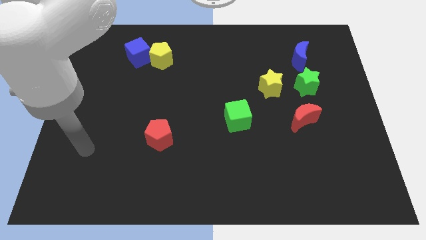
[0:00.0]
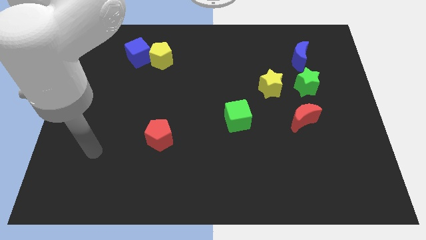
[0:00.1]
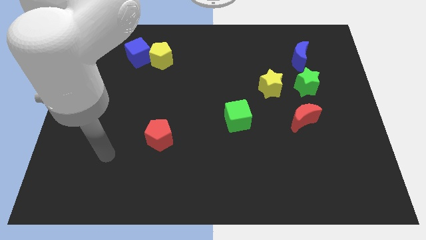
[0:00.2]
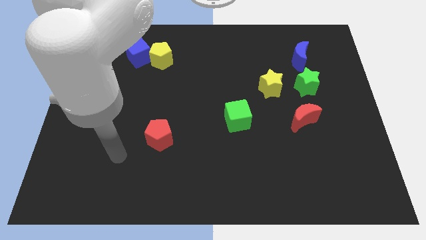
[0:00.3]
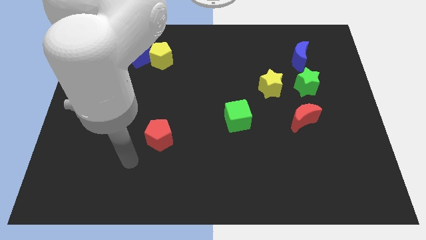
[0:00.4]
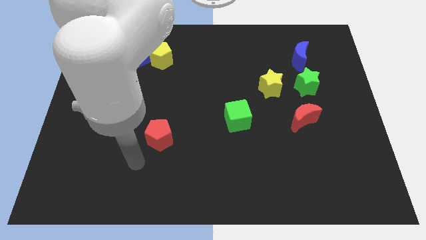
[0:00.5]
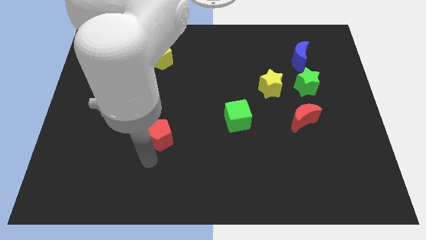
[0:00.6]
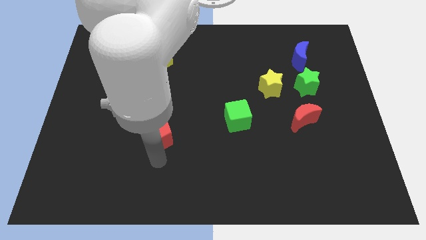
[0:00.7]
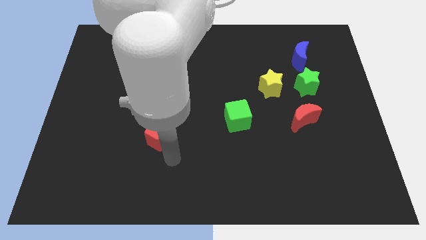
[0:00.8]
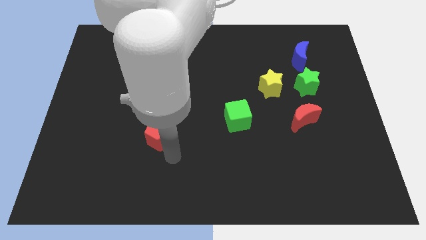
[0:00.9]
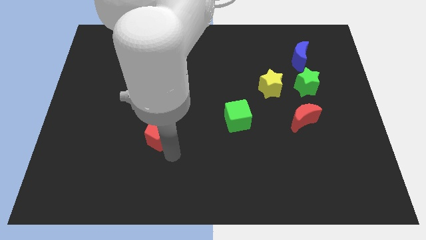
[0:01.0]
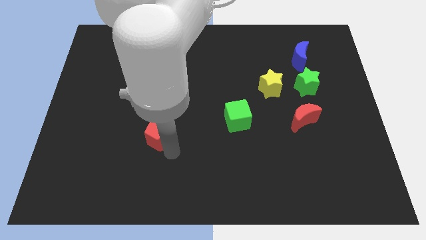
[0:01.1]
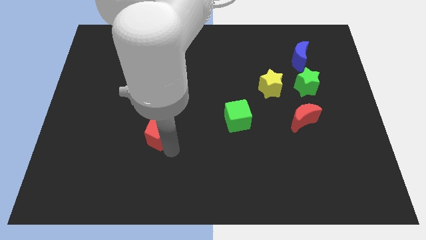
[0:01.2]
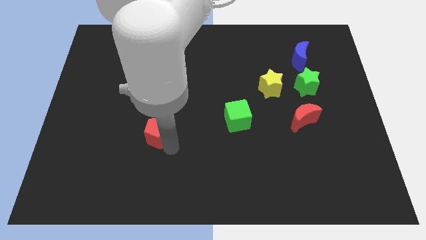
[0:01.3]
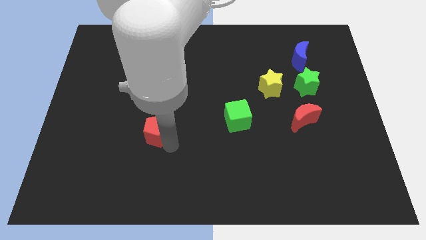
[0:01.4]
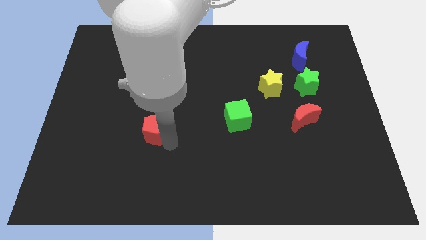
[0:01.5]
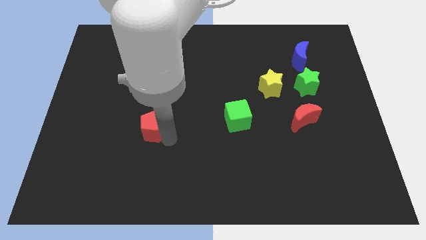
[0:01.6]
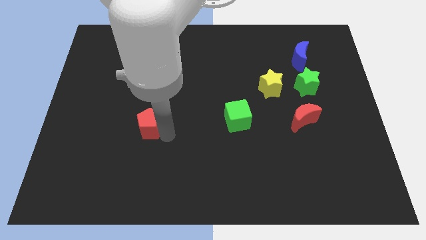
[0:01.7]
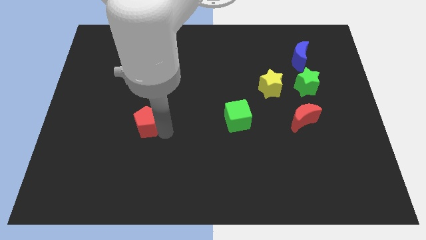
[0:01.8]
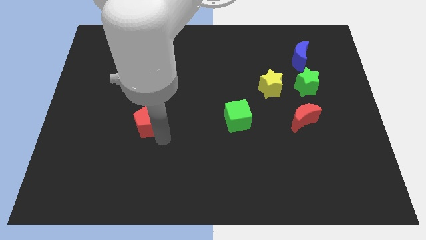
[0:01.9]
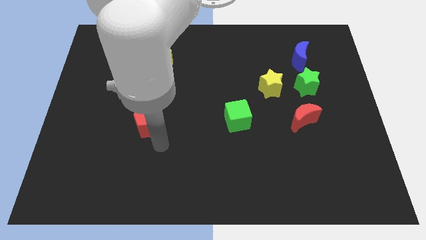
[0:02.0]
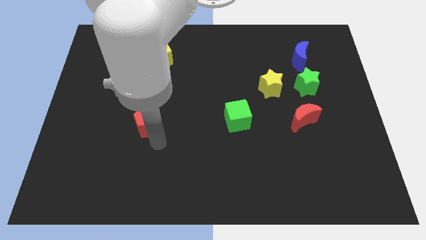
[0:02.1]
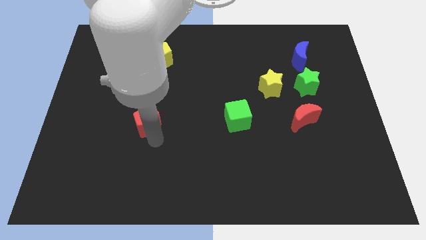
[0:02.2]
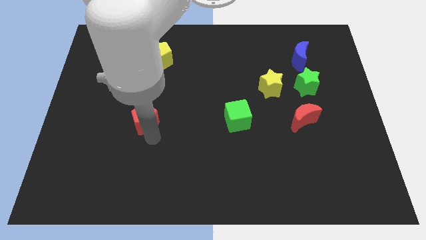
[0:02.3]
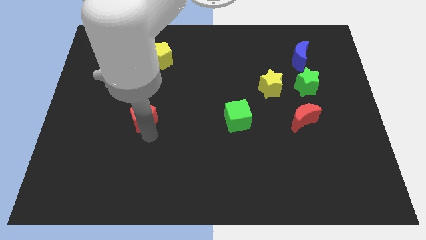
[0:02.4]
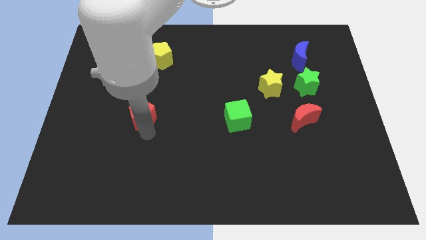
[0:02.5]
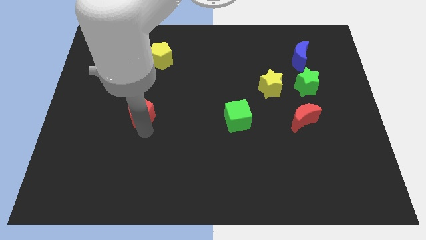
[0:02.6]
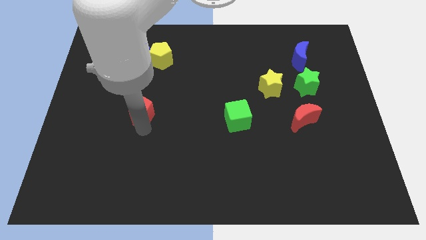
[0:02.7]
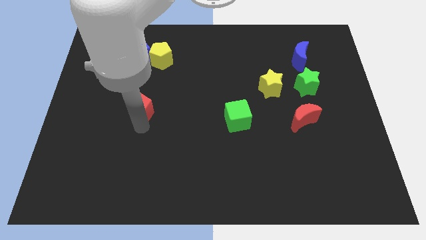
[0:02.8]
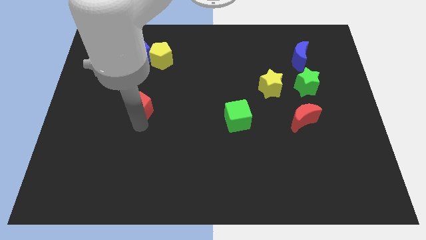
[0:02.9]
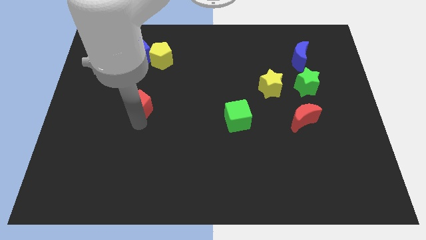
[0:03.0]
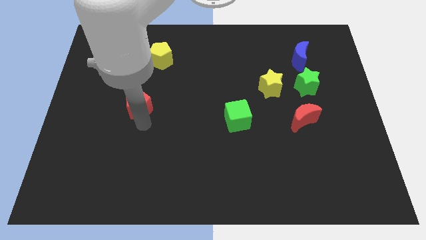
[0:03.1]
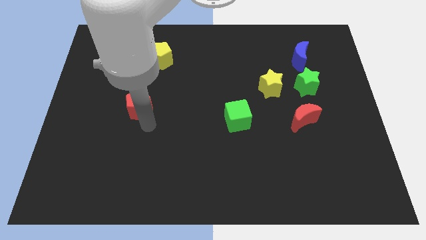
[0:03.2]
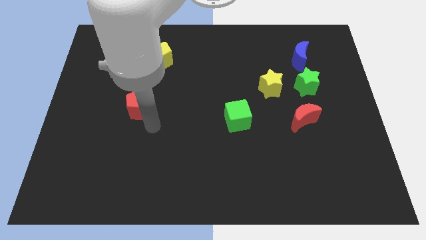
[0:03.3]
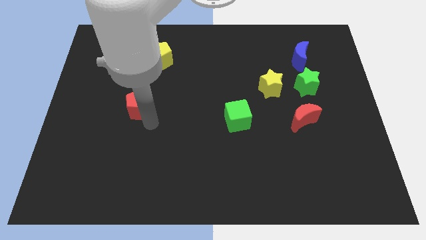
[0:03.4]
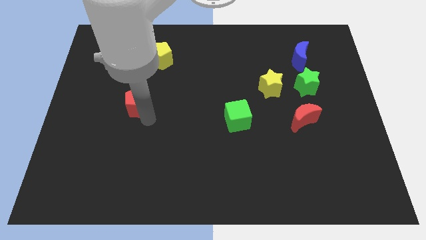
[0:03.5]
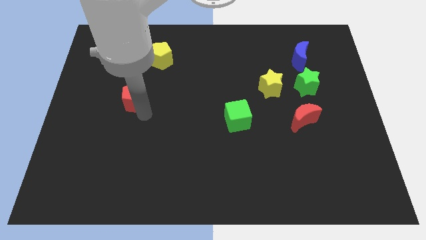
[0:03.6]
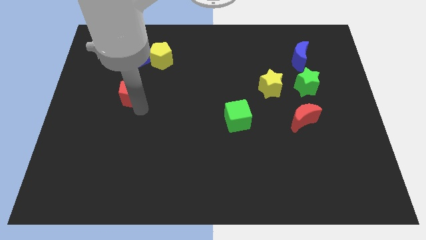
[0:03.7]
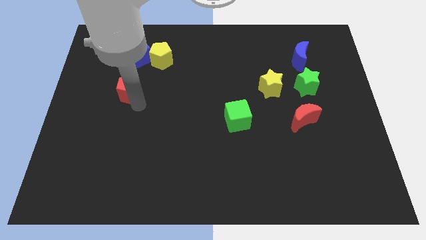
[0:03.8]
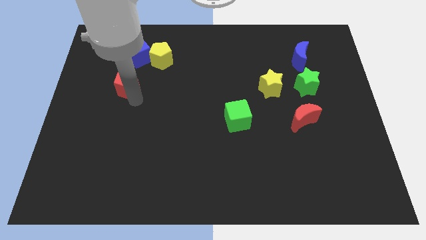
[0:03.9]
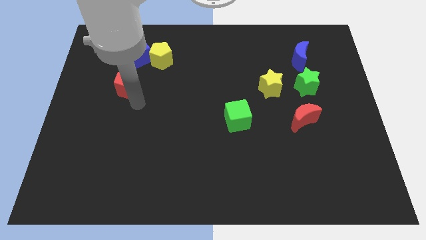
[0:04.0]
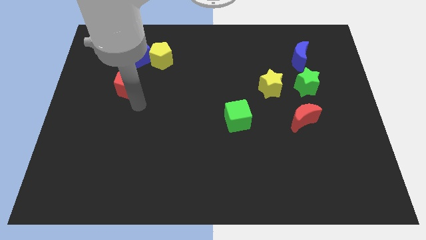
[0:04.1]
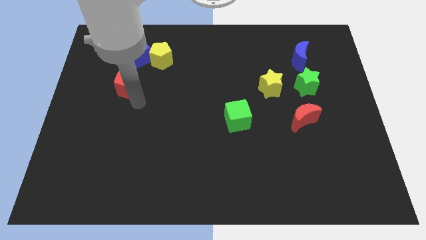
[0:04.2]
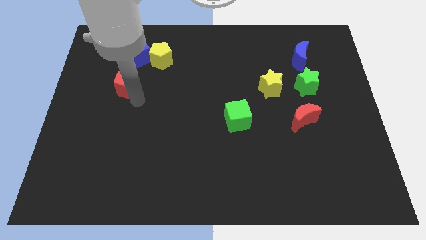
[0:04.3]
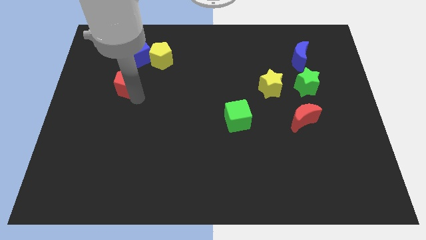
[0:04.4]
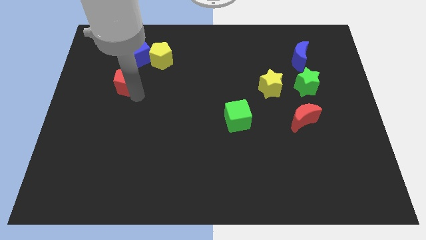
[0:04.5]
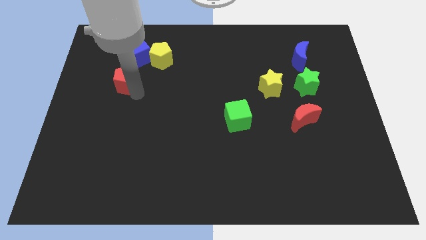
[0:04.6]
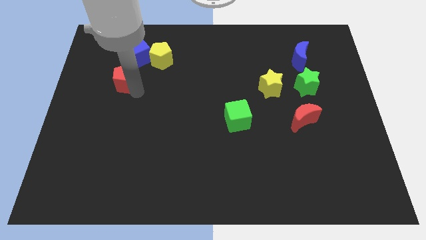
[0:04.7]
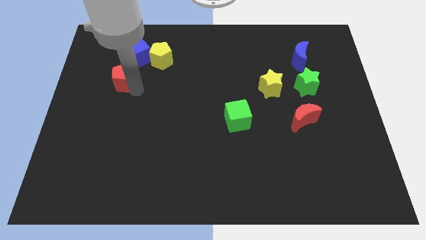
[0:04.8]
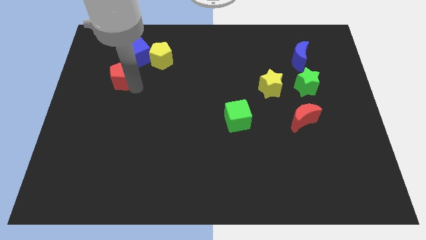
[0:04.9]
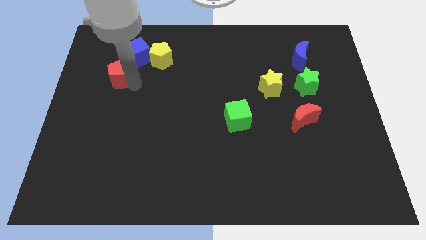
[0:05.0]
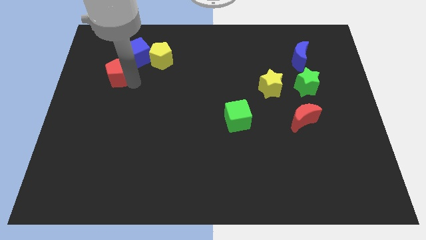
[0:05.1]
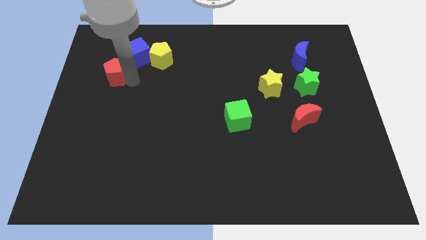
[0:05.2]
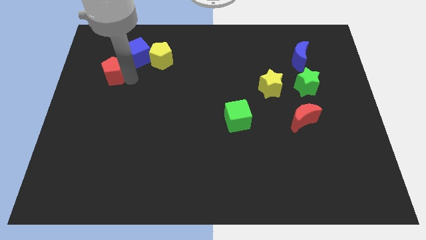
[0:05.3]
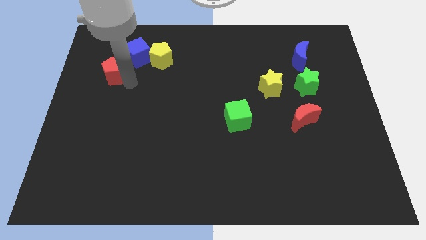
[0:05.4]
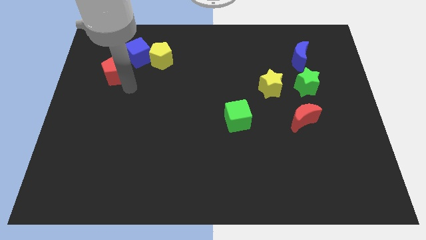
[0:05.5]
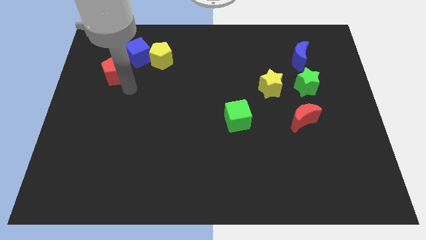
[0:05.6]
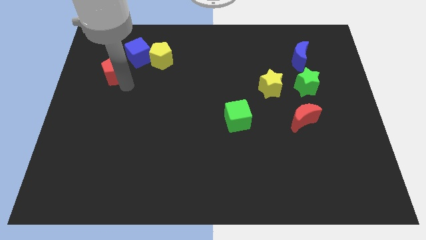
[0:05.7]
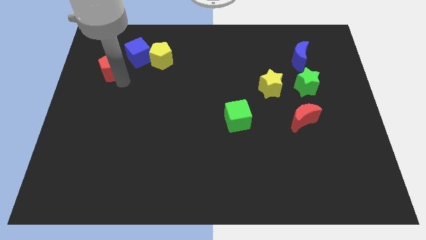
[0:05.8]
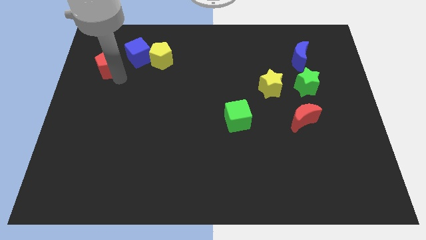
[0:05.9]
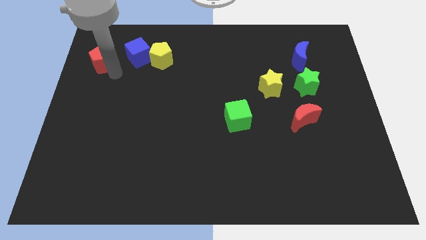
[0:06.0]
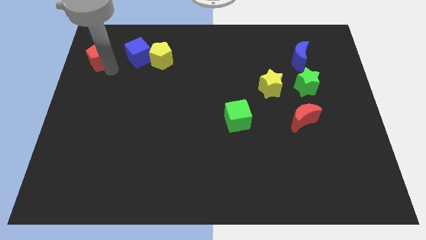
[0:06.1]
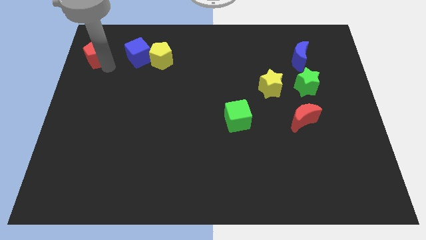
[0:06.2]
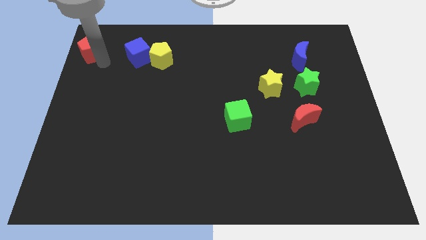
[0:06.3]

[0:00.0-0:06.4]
move the red pentagon to the upper left corner
